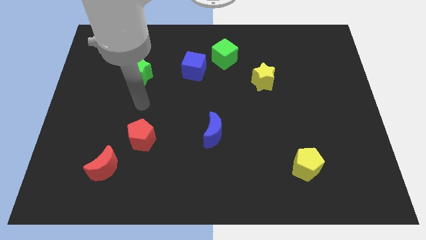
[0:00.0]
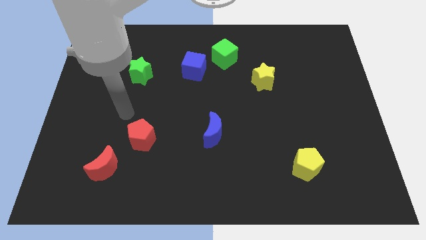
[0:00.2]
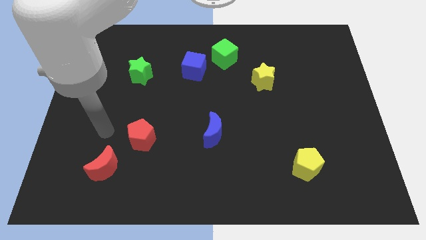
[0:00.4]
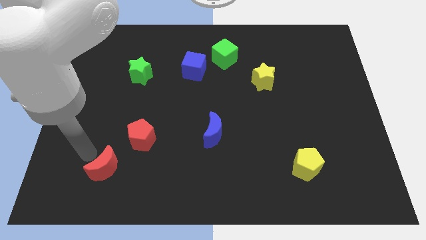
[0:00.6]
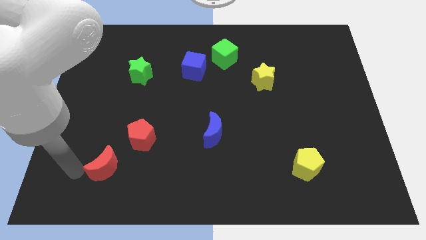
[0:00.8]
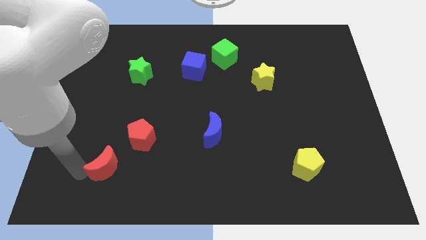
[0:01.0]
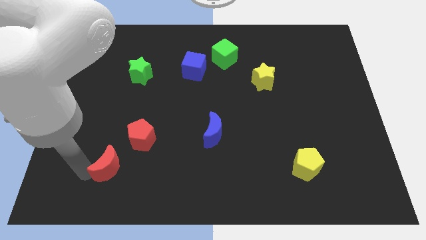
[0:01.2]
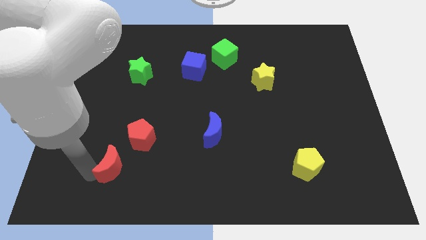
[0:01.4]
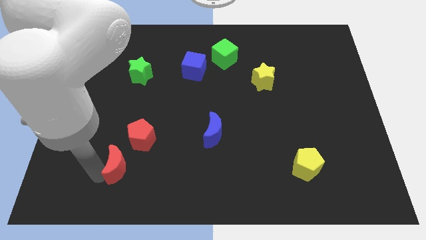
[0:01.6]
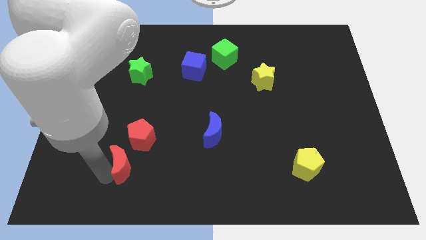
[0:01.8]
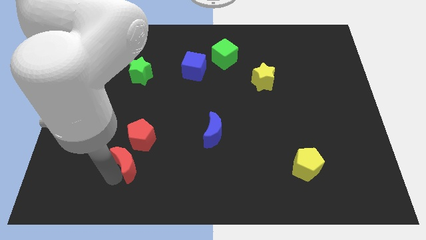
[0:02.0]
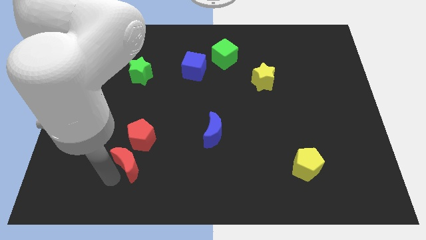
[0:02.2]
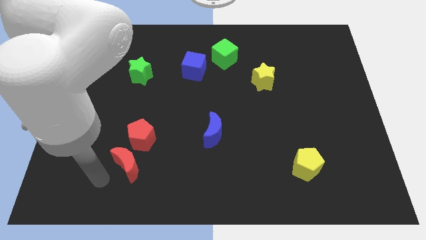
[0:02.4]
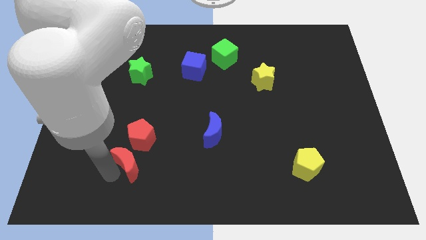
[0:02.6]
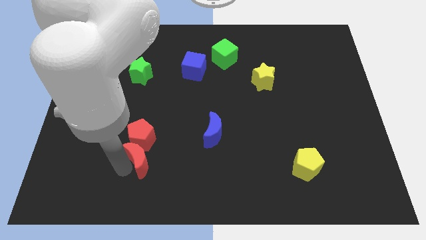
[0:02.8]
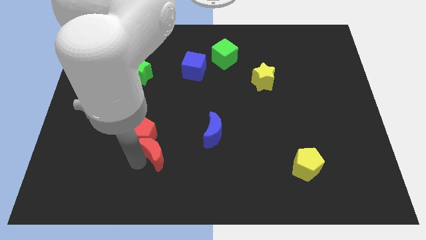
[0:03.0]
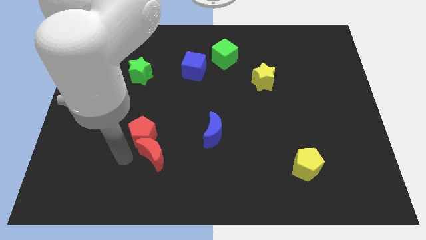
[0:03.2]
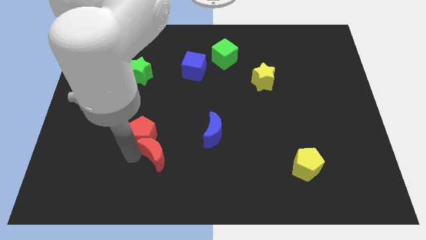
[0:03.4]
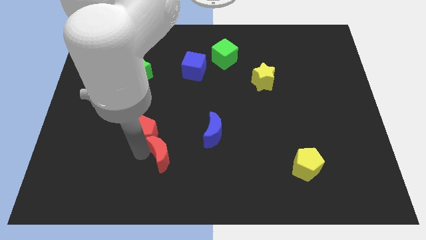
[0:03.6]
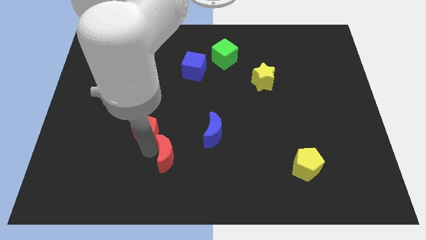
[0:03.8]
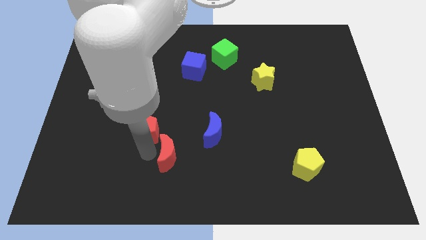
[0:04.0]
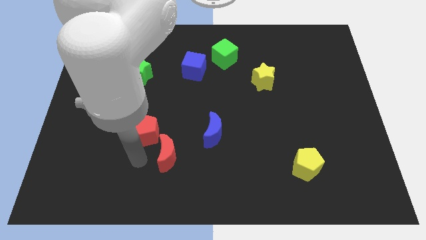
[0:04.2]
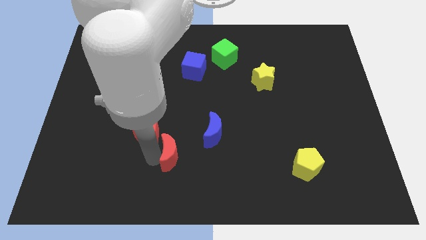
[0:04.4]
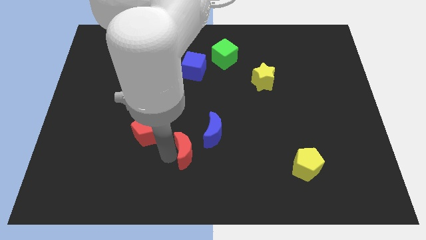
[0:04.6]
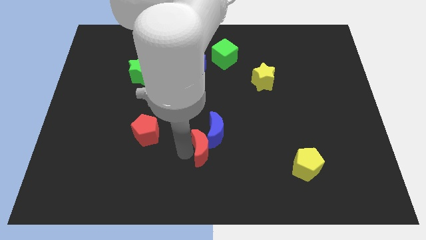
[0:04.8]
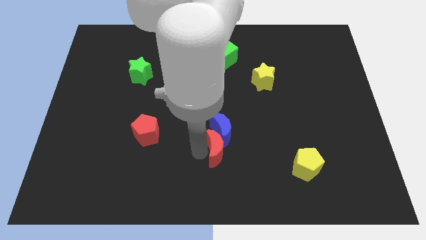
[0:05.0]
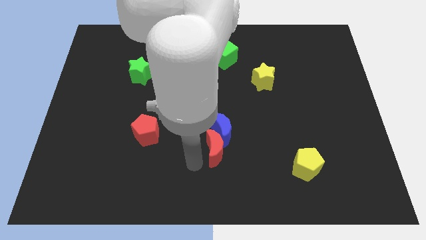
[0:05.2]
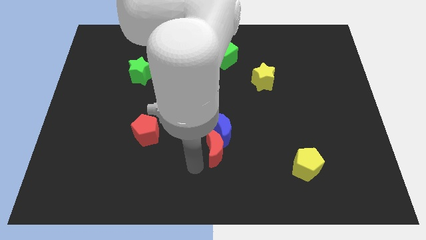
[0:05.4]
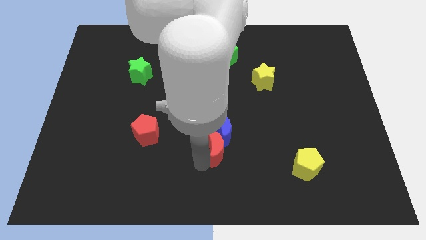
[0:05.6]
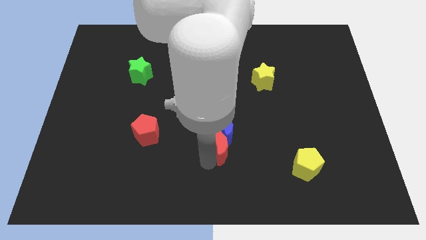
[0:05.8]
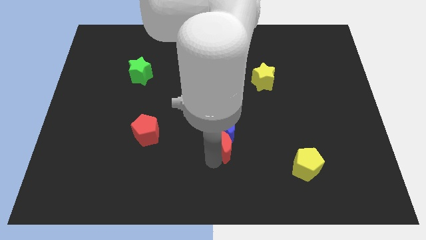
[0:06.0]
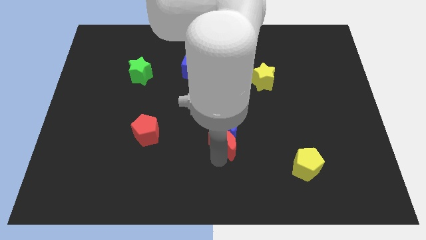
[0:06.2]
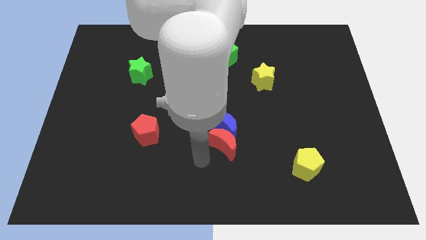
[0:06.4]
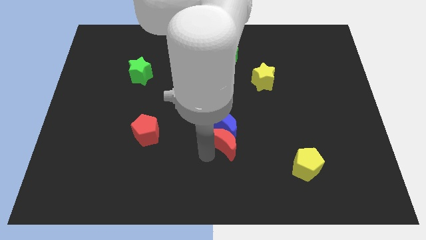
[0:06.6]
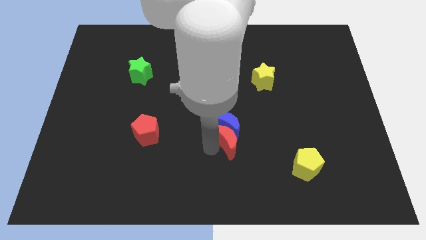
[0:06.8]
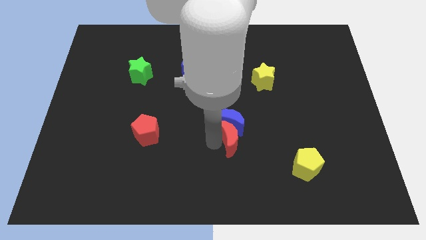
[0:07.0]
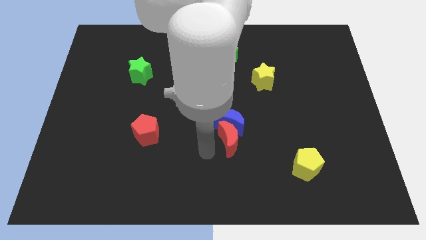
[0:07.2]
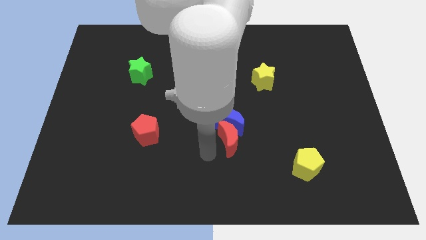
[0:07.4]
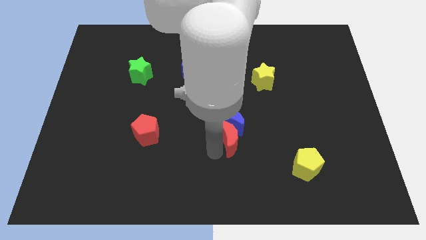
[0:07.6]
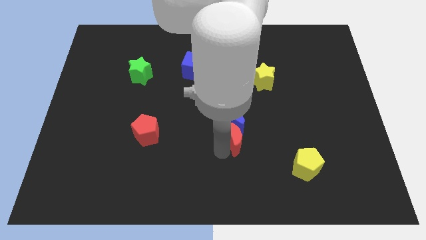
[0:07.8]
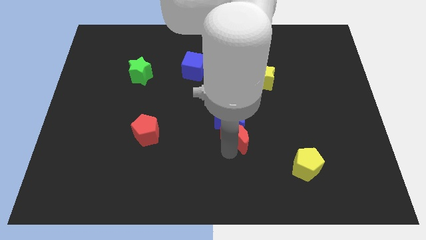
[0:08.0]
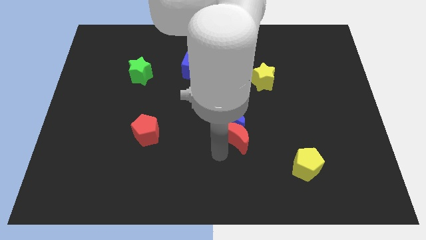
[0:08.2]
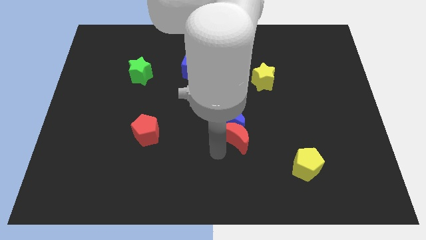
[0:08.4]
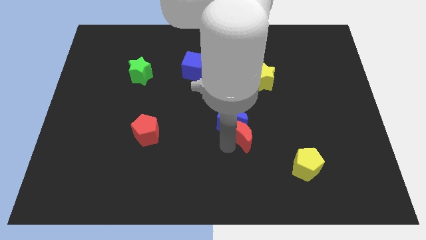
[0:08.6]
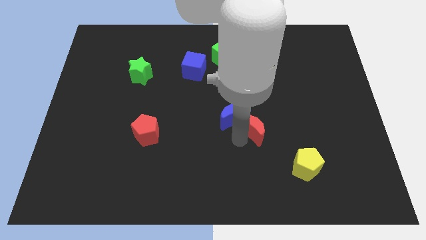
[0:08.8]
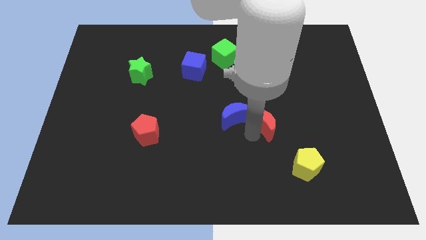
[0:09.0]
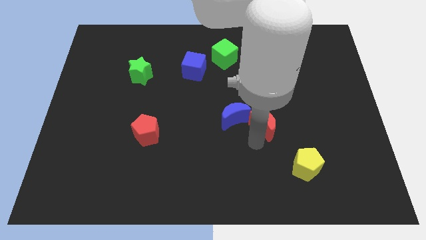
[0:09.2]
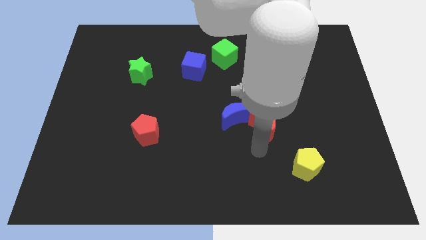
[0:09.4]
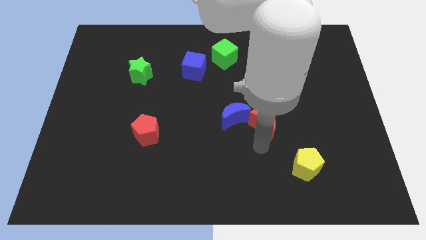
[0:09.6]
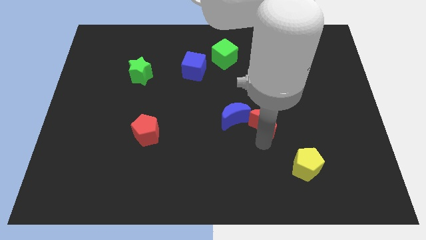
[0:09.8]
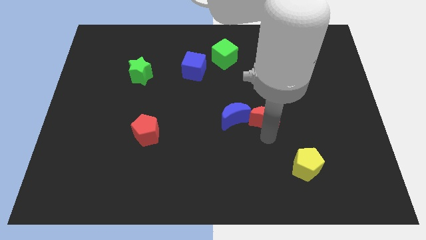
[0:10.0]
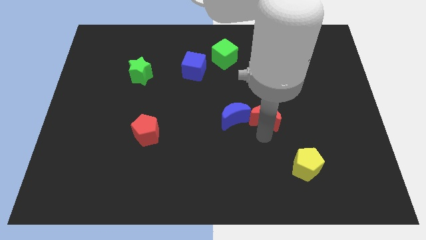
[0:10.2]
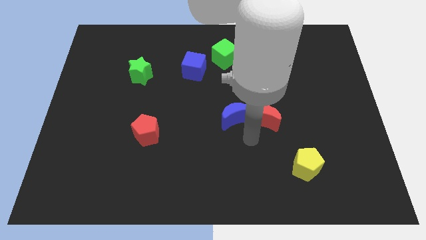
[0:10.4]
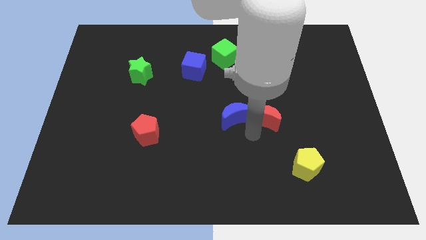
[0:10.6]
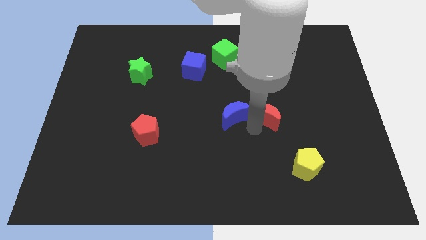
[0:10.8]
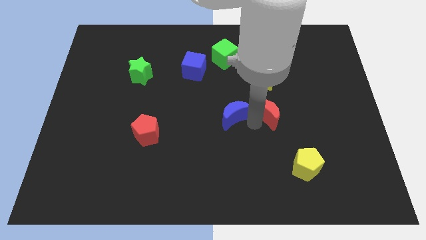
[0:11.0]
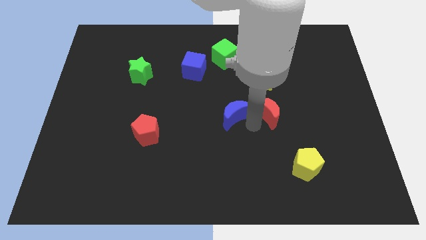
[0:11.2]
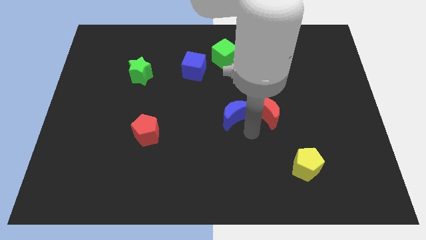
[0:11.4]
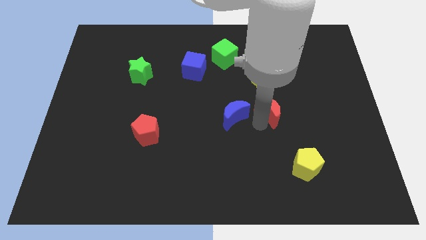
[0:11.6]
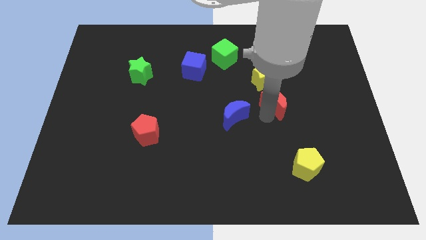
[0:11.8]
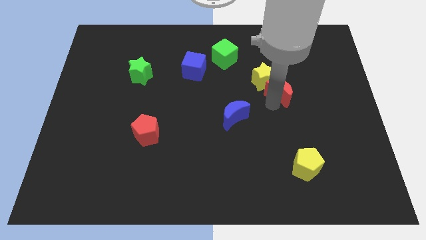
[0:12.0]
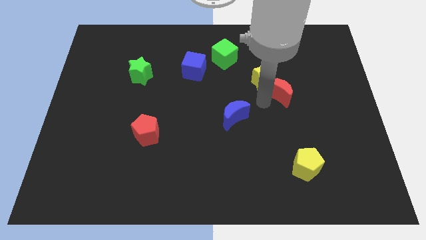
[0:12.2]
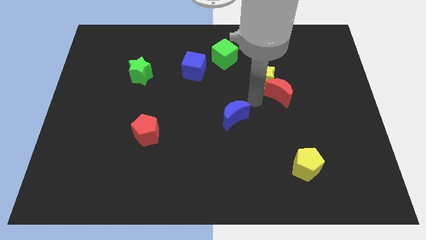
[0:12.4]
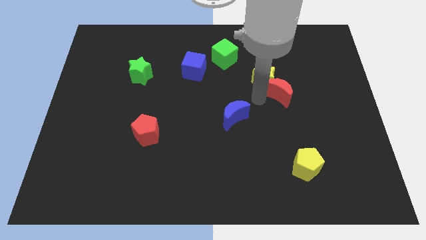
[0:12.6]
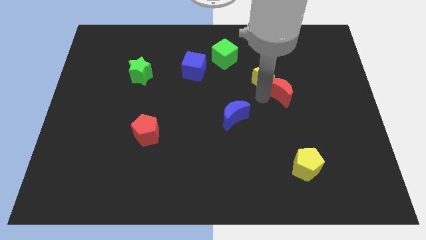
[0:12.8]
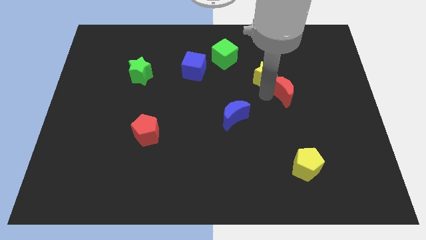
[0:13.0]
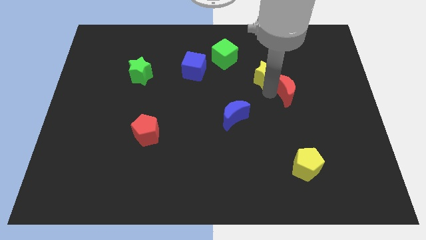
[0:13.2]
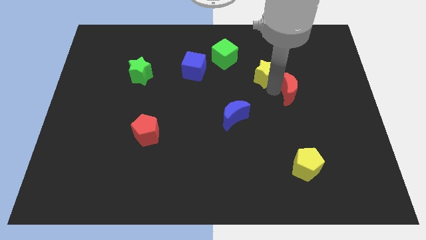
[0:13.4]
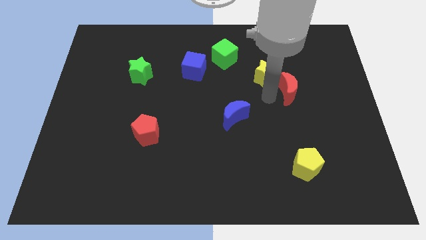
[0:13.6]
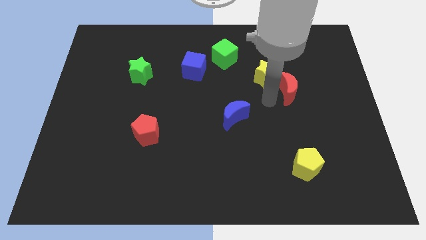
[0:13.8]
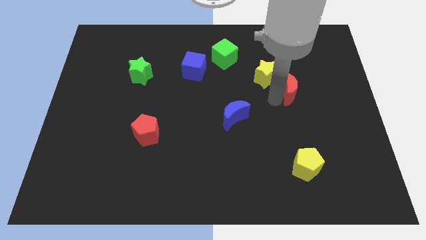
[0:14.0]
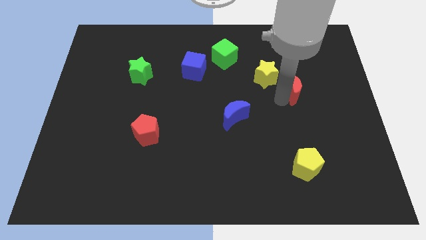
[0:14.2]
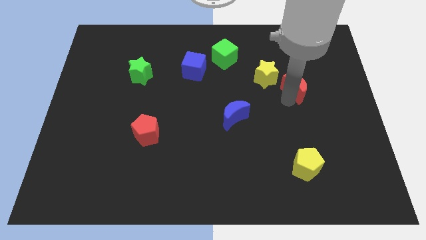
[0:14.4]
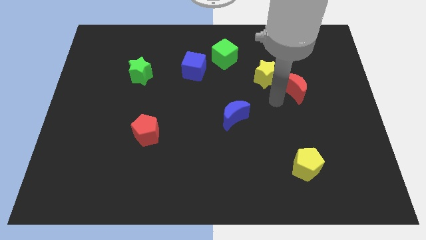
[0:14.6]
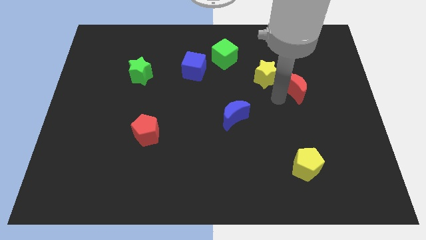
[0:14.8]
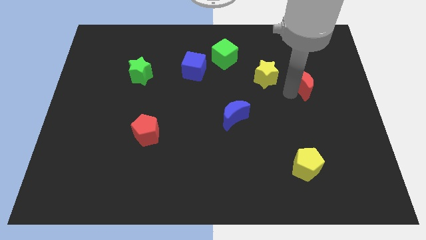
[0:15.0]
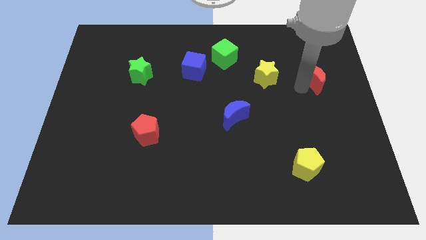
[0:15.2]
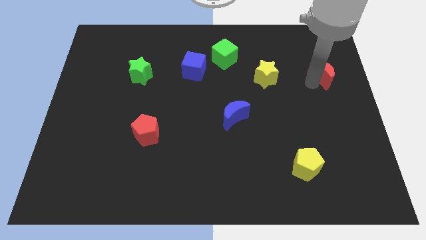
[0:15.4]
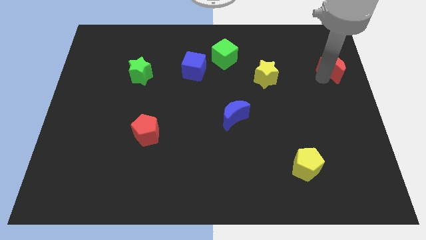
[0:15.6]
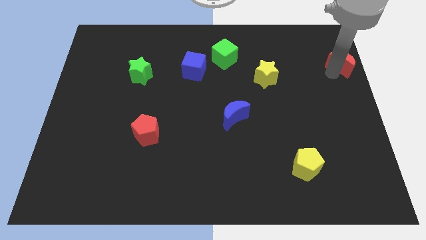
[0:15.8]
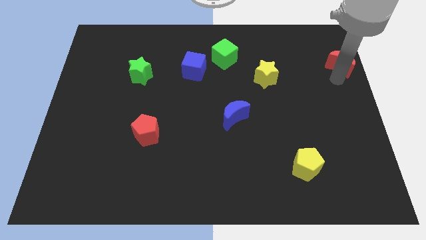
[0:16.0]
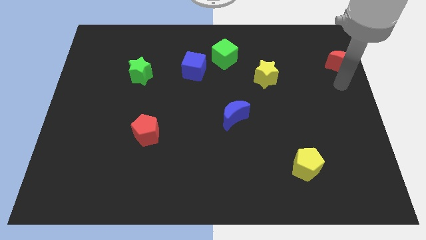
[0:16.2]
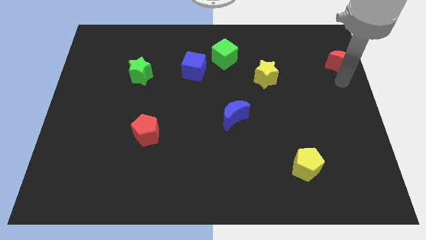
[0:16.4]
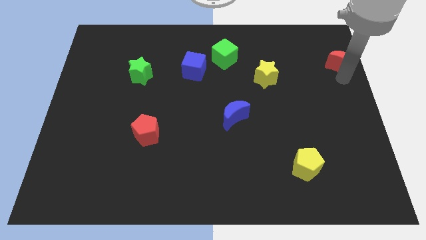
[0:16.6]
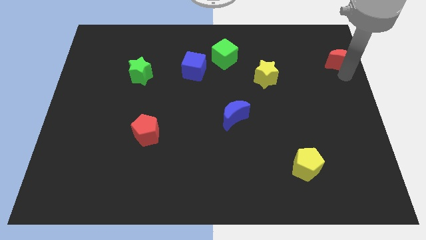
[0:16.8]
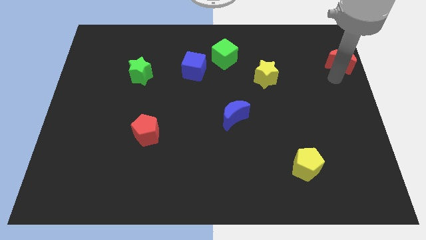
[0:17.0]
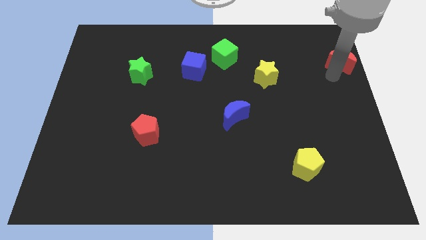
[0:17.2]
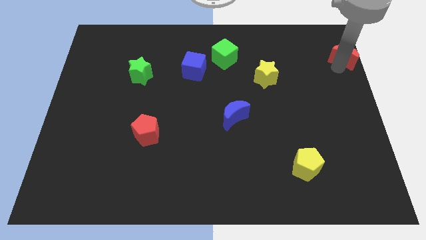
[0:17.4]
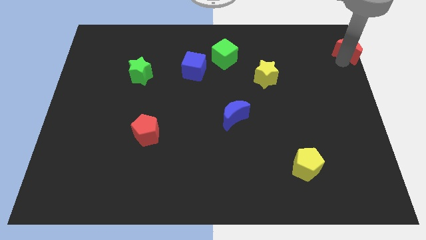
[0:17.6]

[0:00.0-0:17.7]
push the red moon to the upper right corner
